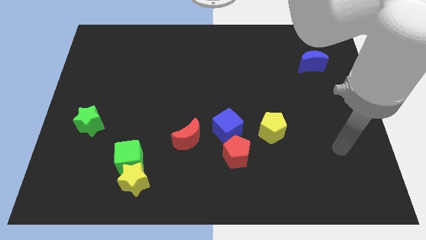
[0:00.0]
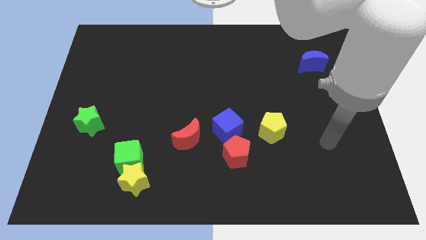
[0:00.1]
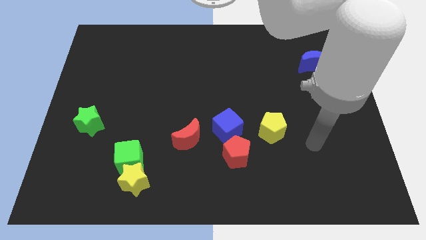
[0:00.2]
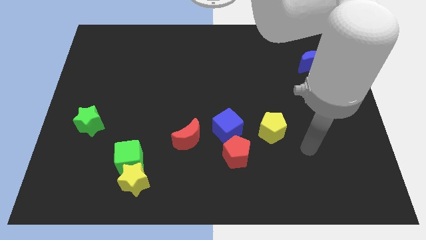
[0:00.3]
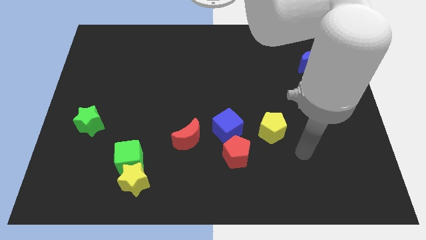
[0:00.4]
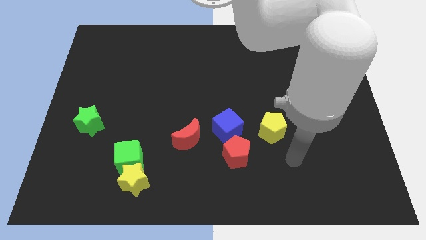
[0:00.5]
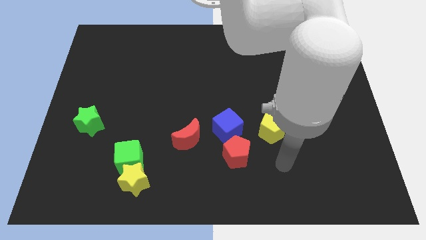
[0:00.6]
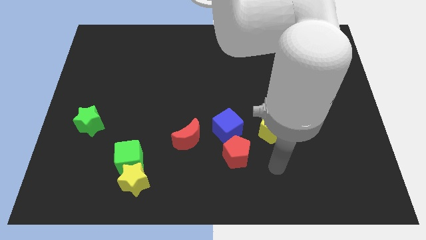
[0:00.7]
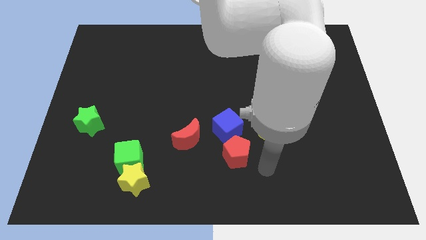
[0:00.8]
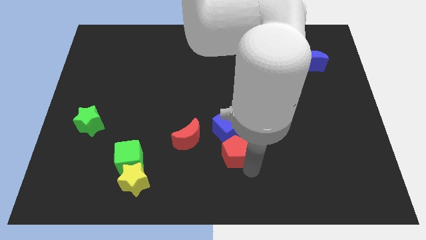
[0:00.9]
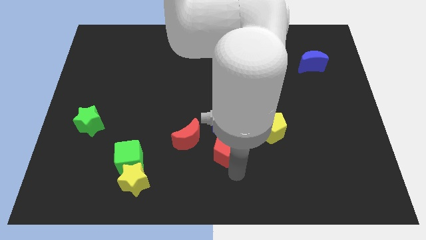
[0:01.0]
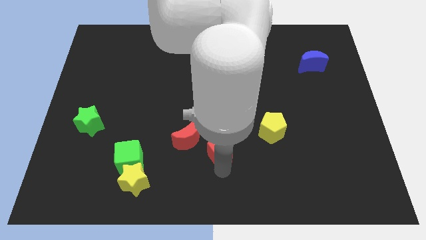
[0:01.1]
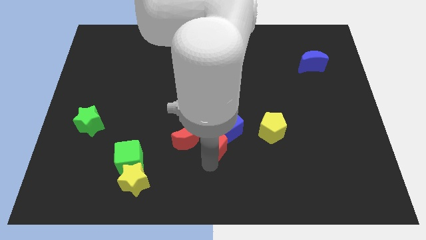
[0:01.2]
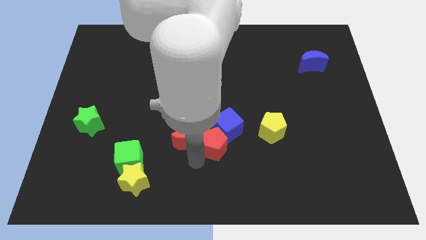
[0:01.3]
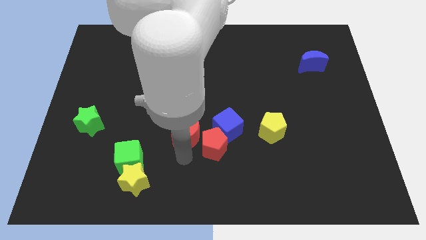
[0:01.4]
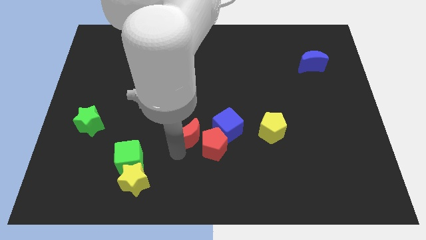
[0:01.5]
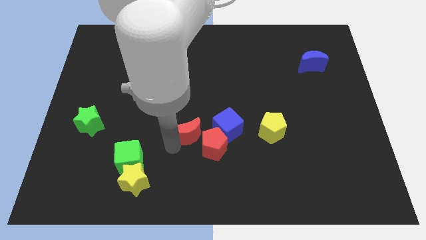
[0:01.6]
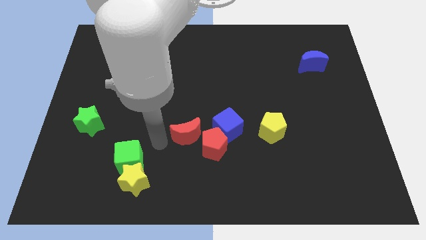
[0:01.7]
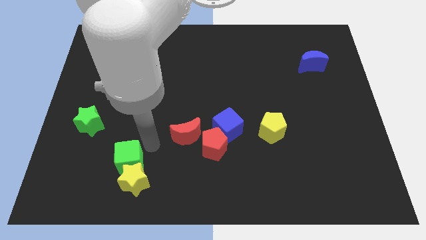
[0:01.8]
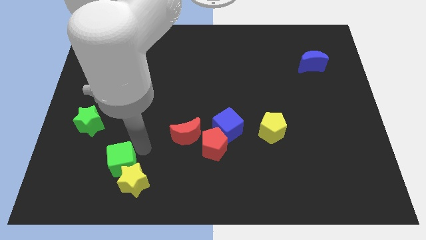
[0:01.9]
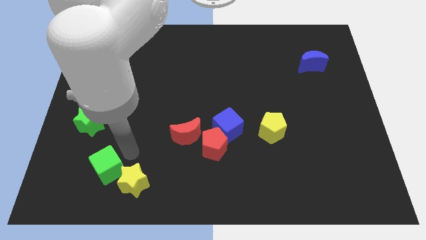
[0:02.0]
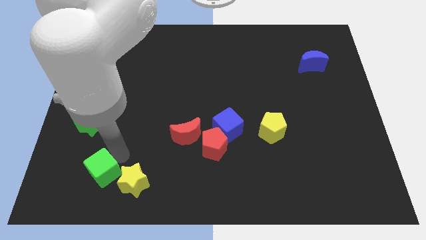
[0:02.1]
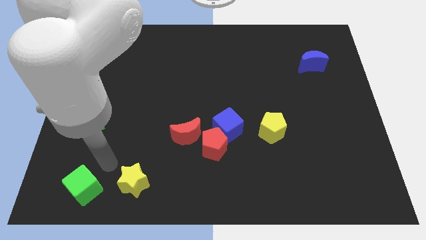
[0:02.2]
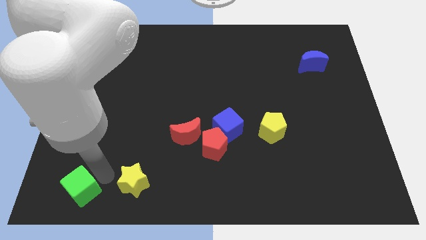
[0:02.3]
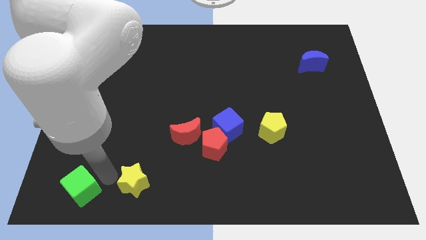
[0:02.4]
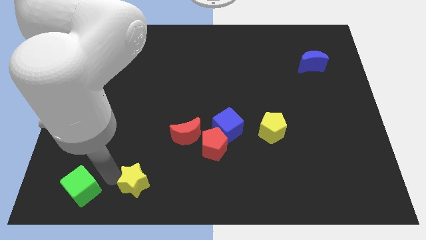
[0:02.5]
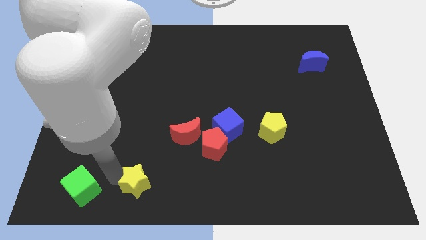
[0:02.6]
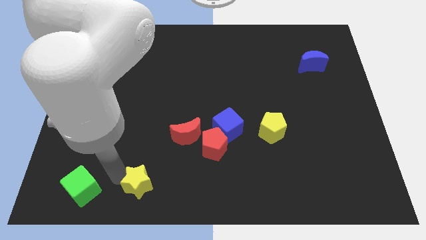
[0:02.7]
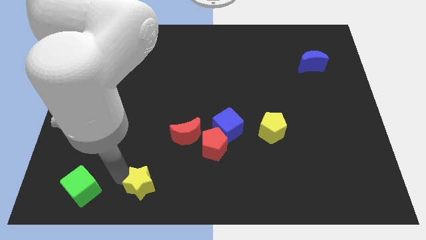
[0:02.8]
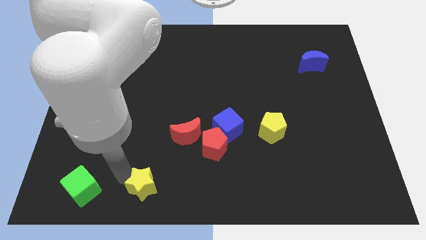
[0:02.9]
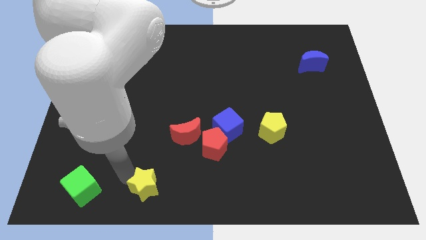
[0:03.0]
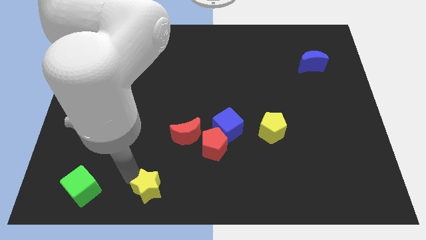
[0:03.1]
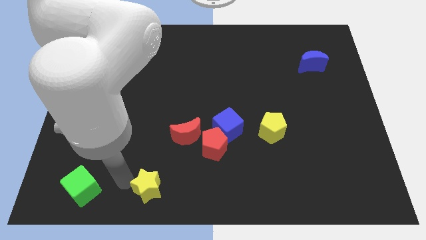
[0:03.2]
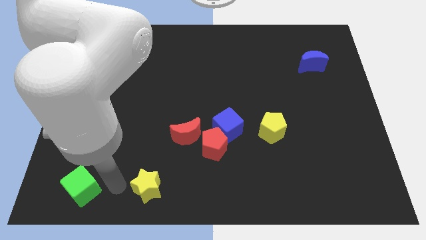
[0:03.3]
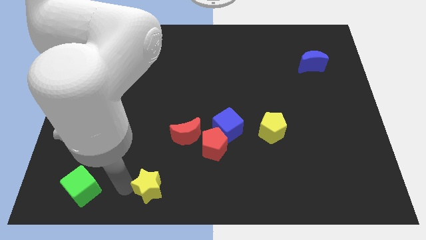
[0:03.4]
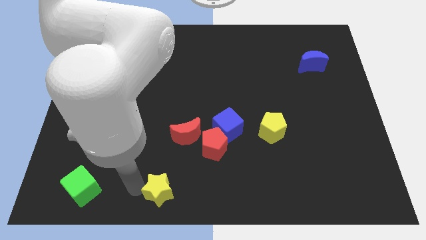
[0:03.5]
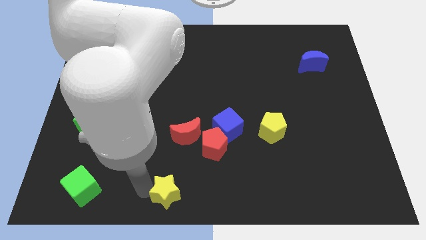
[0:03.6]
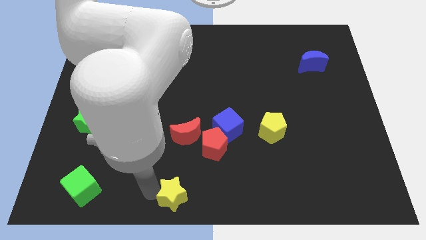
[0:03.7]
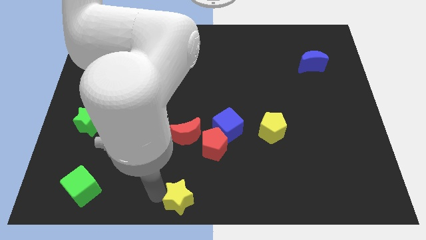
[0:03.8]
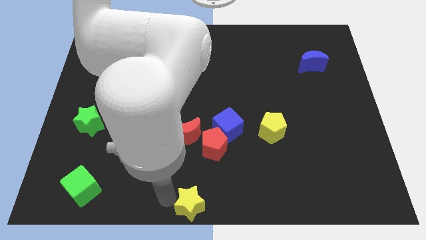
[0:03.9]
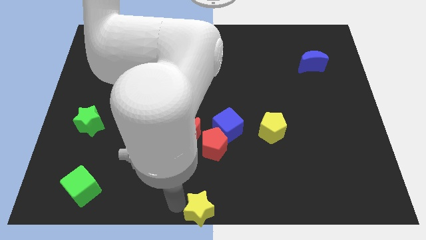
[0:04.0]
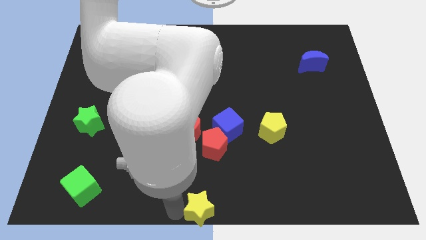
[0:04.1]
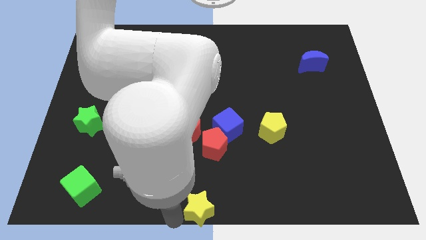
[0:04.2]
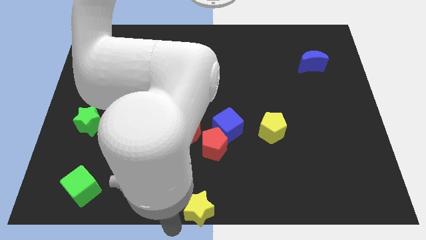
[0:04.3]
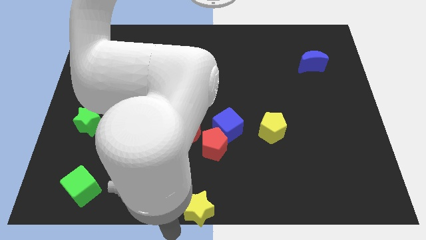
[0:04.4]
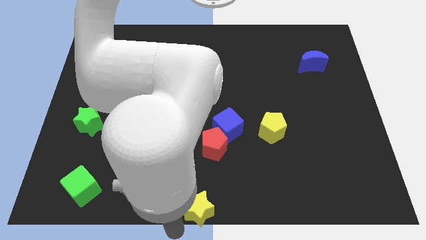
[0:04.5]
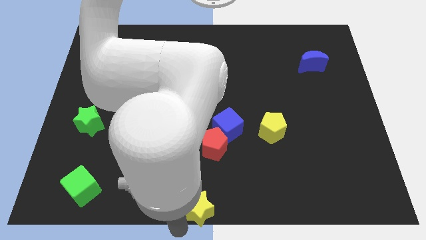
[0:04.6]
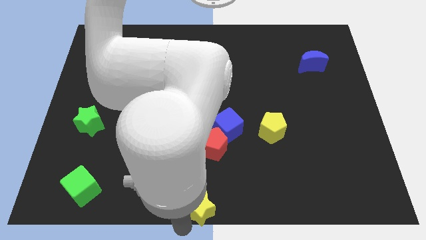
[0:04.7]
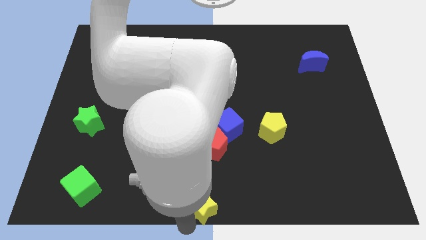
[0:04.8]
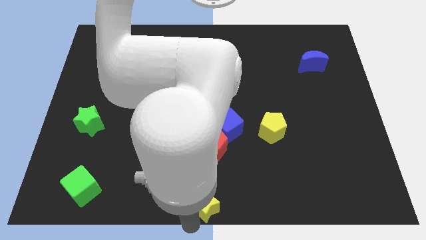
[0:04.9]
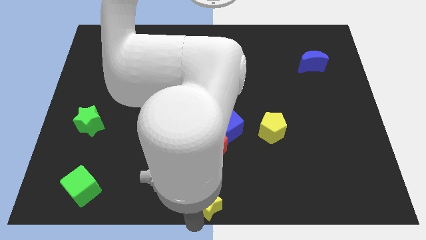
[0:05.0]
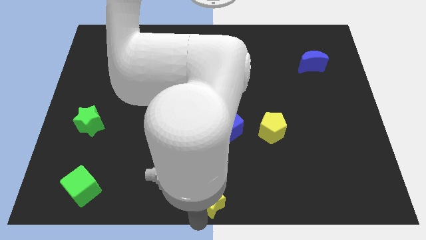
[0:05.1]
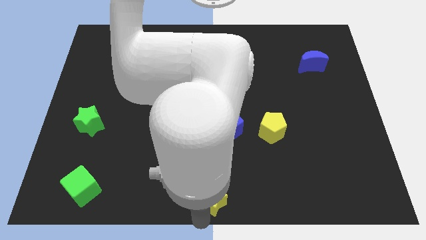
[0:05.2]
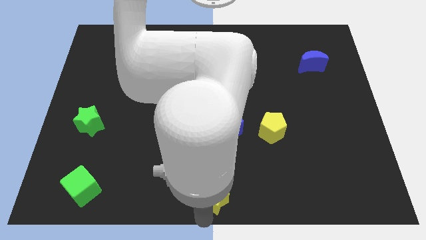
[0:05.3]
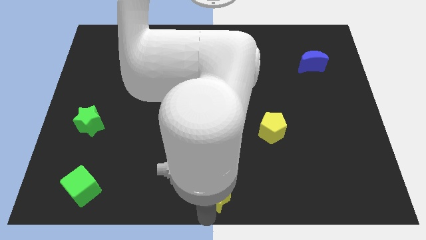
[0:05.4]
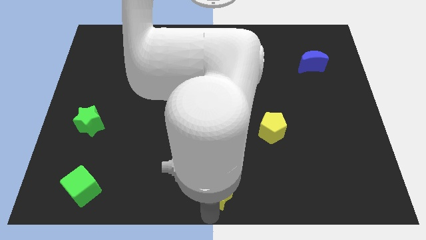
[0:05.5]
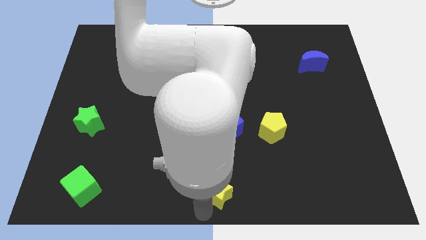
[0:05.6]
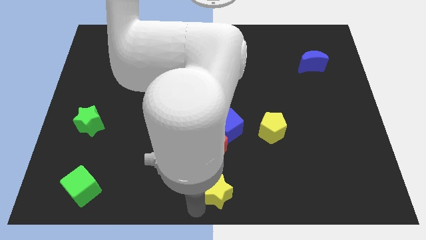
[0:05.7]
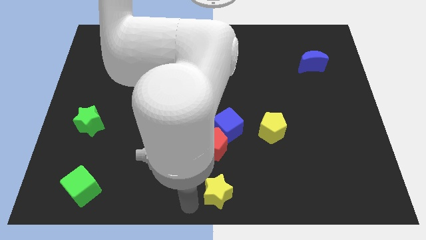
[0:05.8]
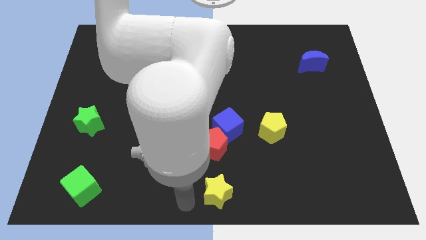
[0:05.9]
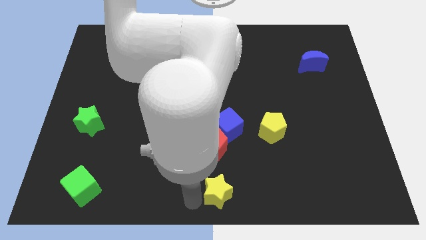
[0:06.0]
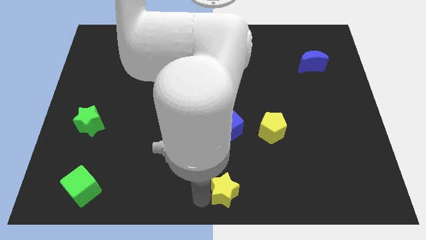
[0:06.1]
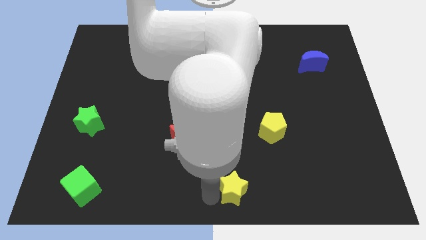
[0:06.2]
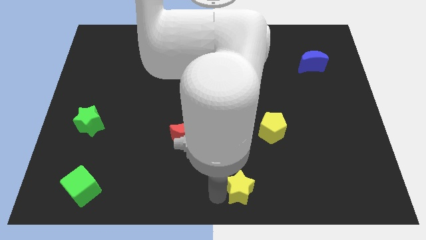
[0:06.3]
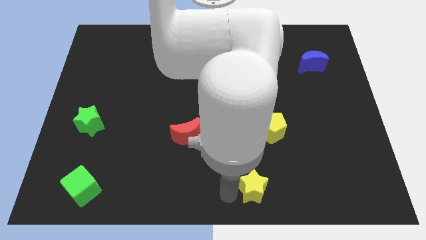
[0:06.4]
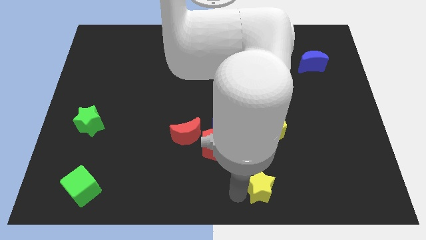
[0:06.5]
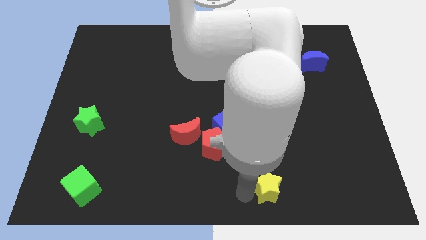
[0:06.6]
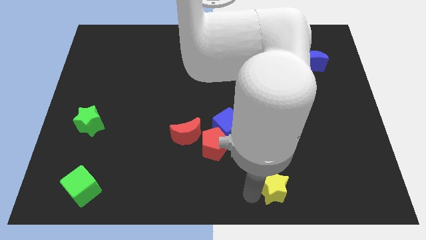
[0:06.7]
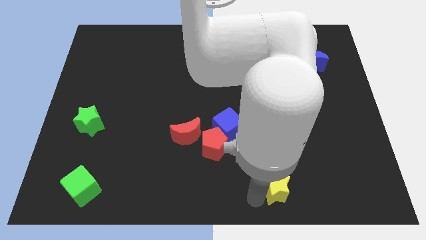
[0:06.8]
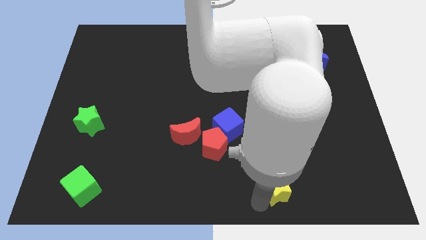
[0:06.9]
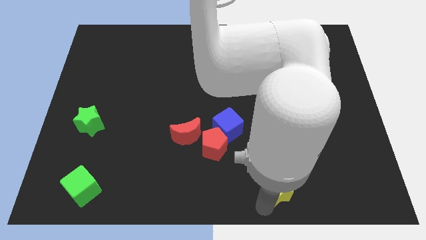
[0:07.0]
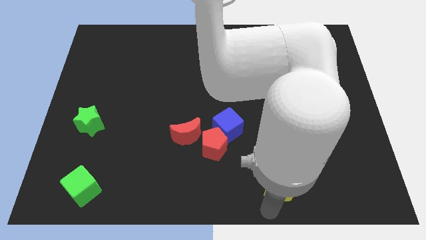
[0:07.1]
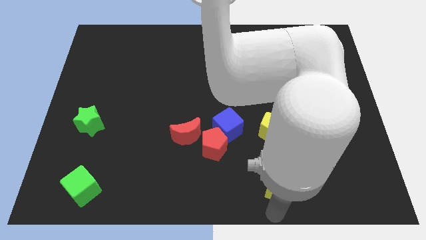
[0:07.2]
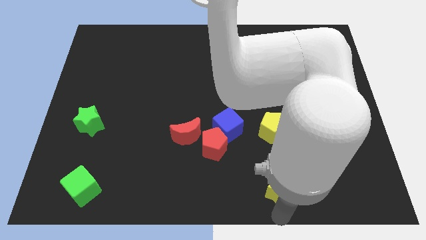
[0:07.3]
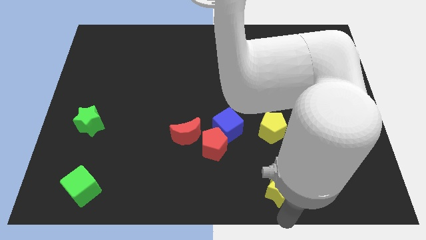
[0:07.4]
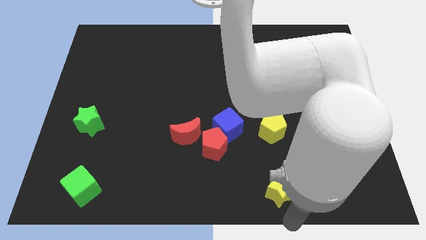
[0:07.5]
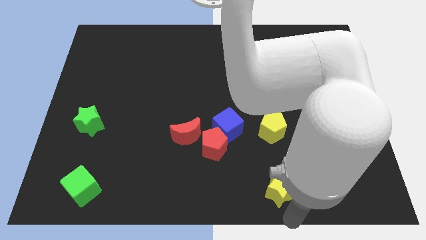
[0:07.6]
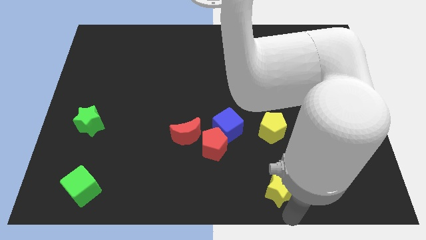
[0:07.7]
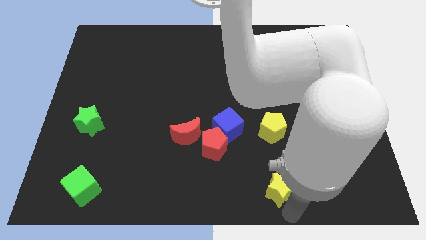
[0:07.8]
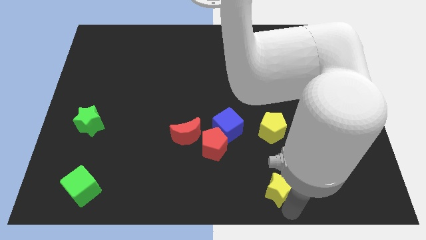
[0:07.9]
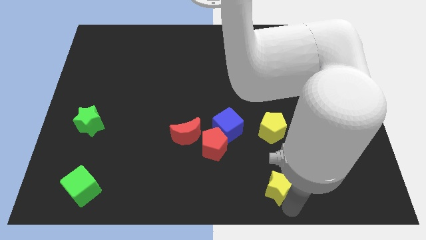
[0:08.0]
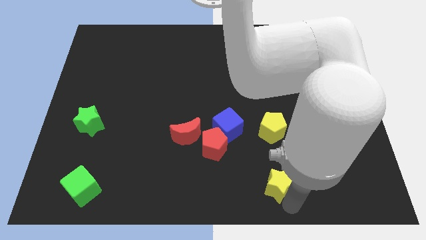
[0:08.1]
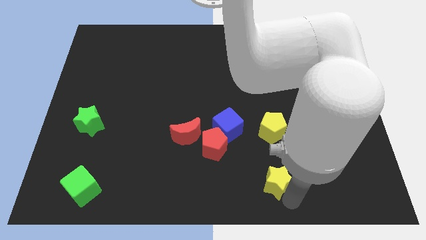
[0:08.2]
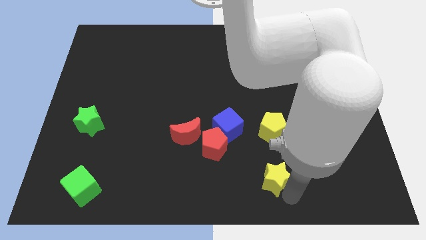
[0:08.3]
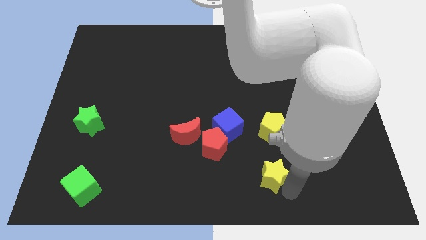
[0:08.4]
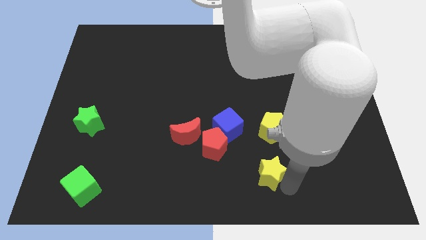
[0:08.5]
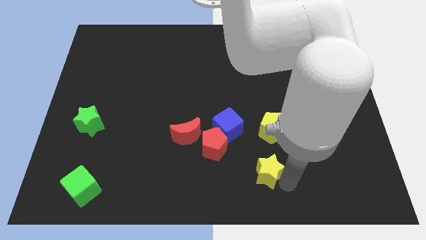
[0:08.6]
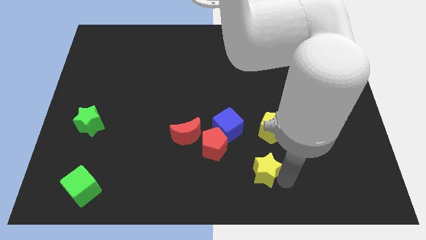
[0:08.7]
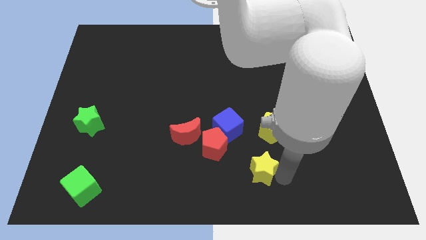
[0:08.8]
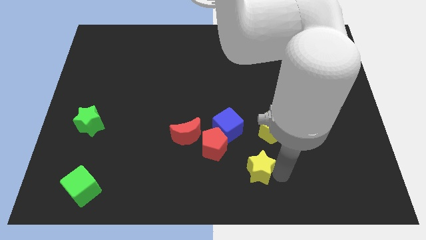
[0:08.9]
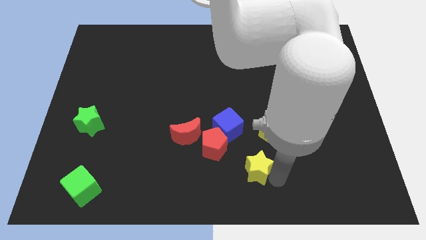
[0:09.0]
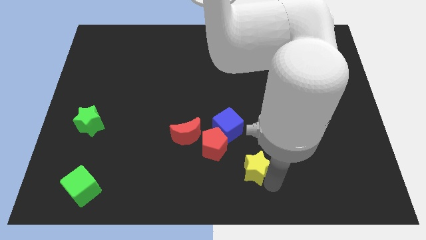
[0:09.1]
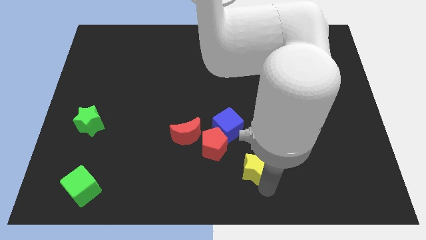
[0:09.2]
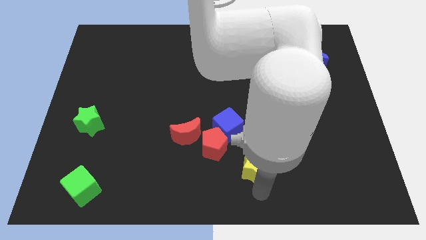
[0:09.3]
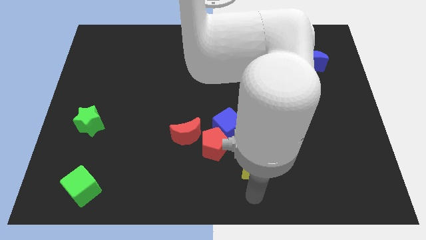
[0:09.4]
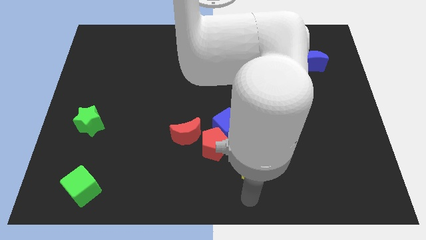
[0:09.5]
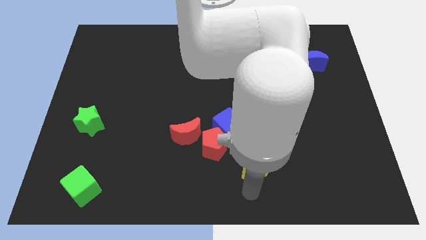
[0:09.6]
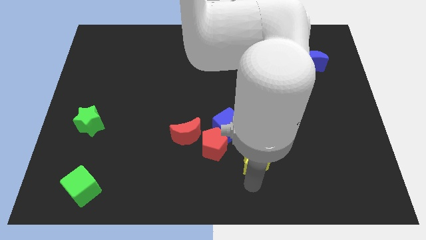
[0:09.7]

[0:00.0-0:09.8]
move the yellow star to the right side of the red pentagon
